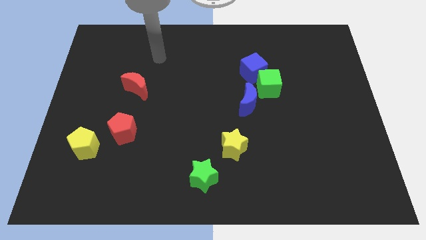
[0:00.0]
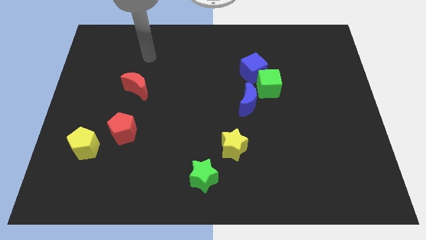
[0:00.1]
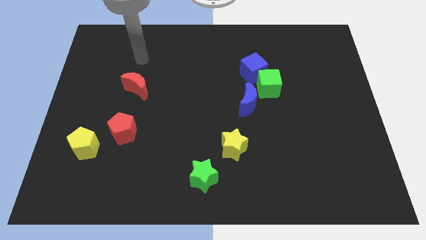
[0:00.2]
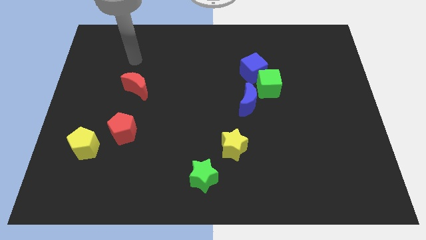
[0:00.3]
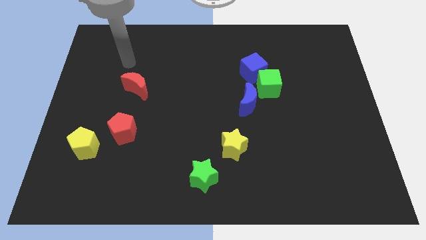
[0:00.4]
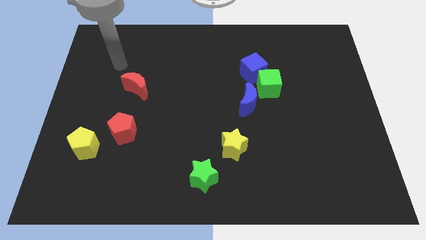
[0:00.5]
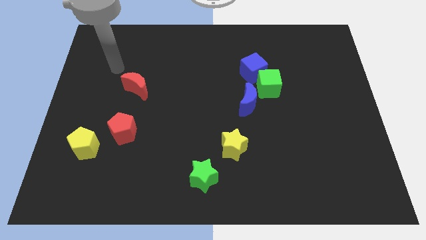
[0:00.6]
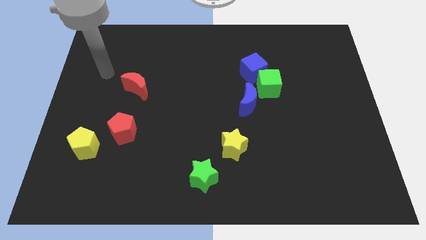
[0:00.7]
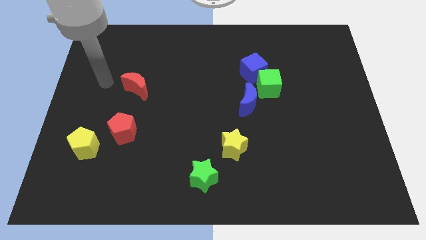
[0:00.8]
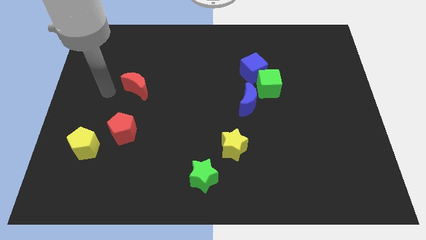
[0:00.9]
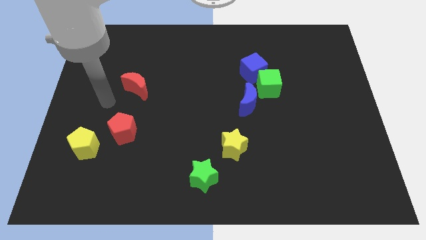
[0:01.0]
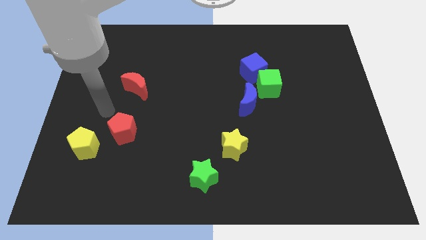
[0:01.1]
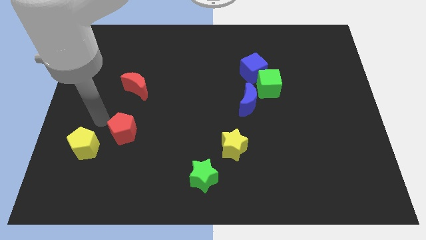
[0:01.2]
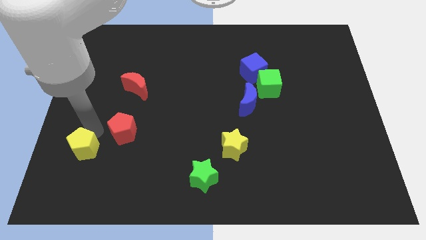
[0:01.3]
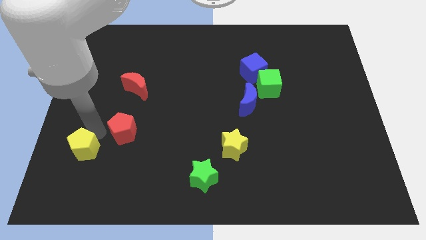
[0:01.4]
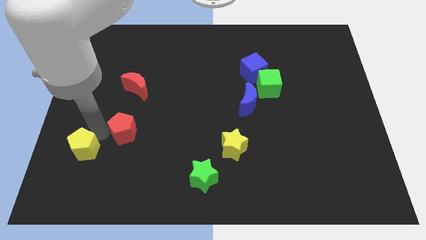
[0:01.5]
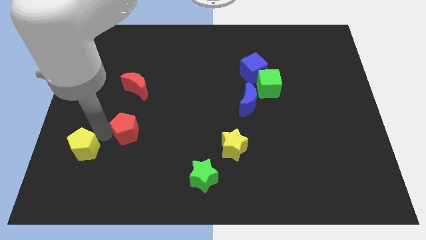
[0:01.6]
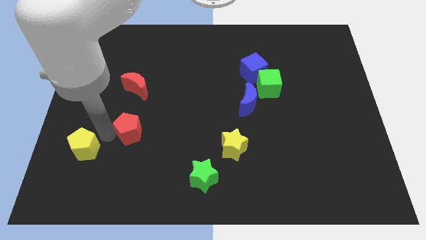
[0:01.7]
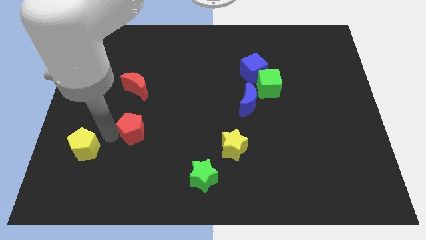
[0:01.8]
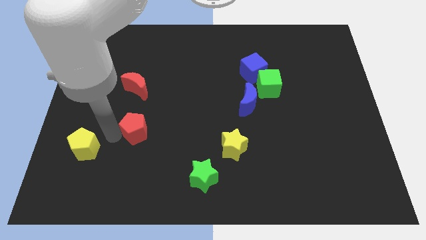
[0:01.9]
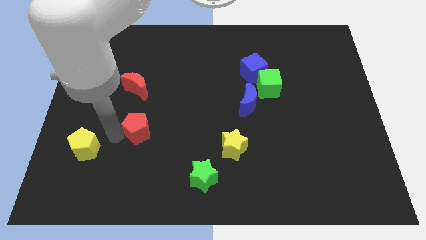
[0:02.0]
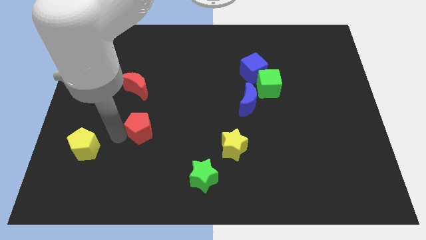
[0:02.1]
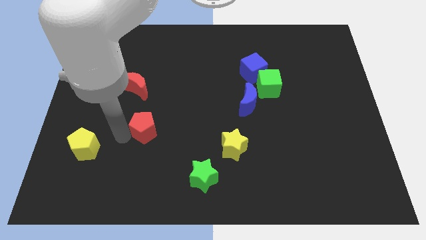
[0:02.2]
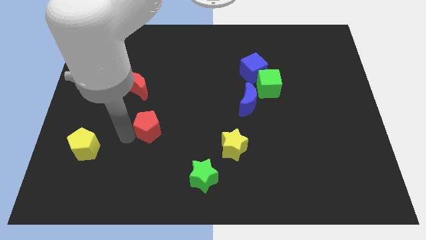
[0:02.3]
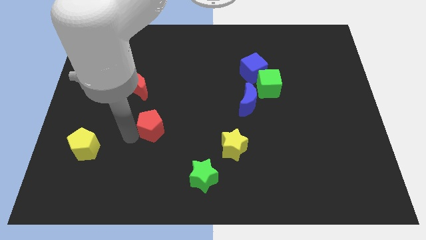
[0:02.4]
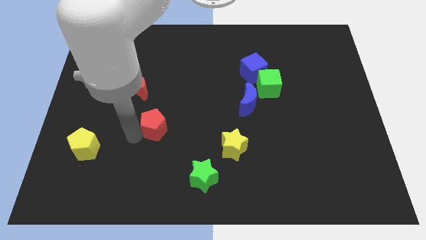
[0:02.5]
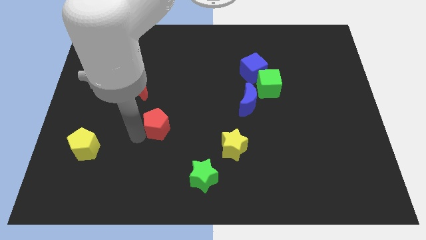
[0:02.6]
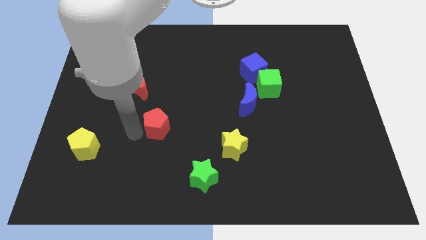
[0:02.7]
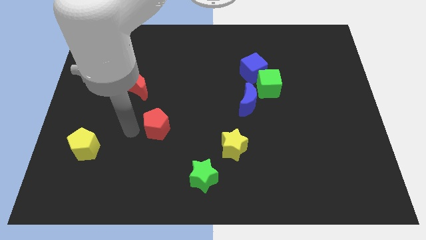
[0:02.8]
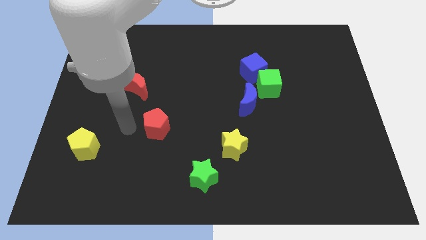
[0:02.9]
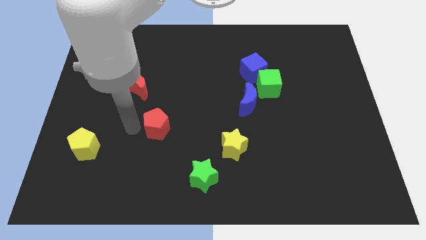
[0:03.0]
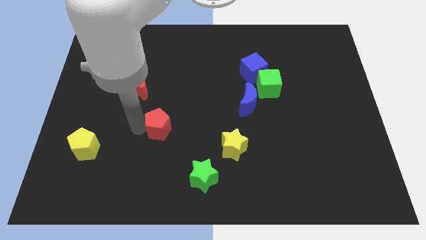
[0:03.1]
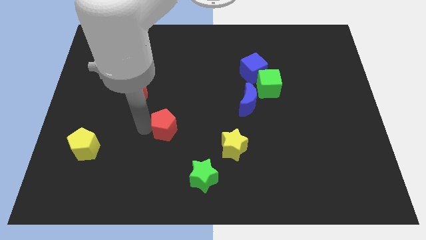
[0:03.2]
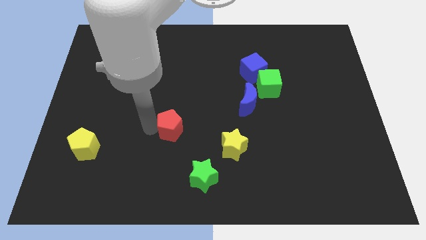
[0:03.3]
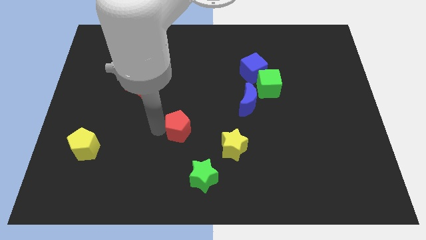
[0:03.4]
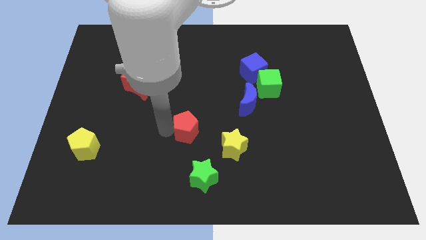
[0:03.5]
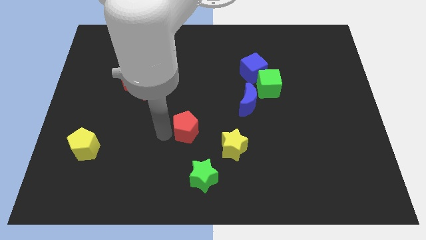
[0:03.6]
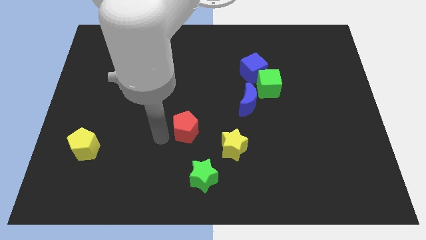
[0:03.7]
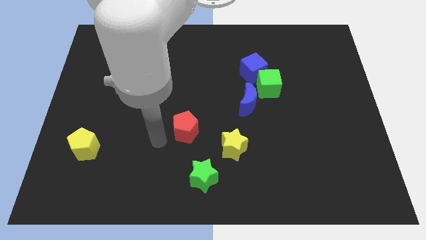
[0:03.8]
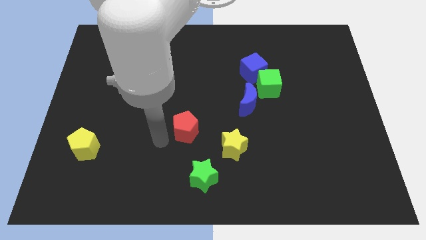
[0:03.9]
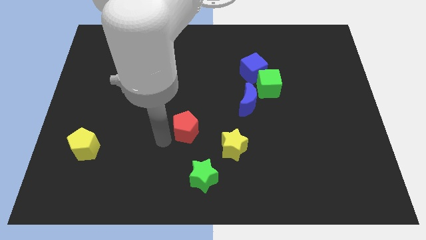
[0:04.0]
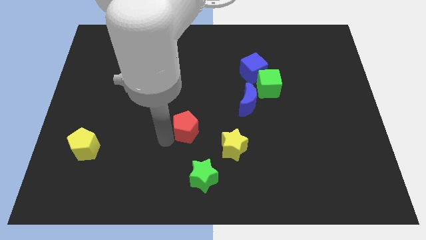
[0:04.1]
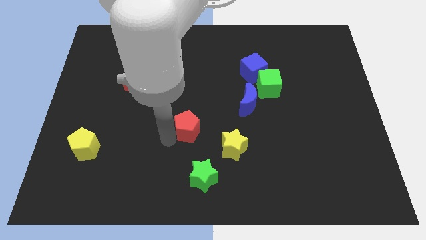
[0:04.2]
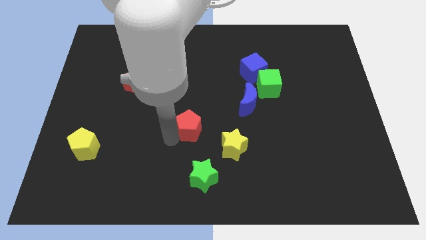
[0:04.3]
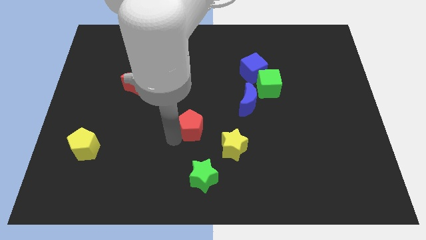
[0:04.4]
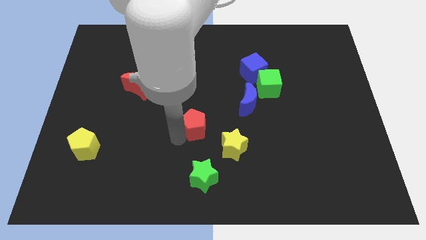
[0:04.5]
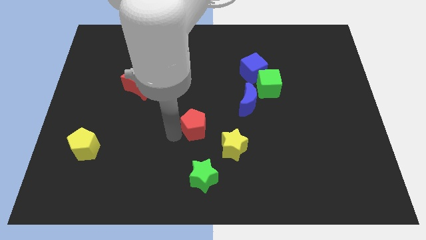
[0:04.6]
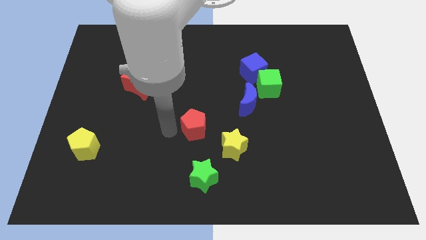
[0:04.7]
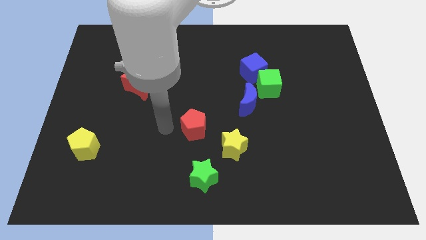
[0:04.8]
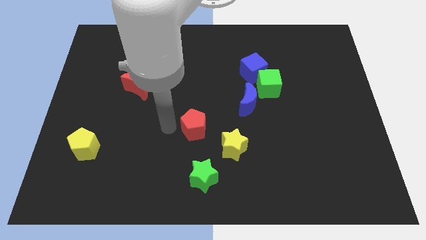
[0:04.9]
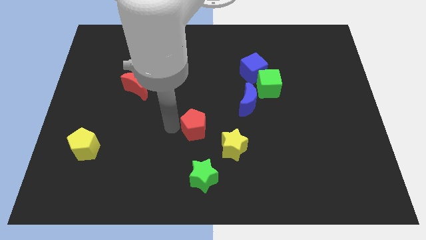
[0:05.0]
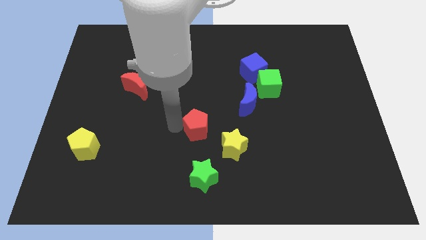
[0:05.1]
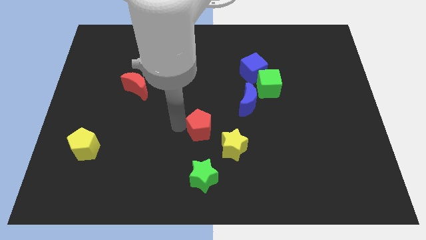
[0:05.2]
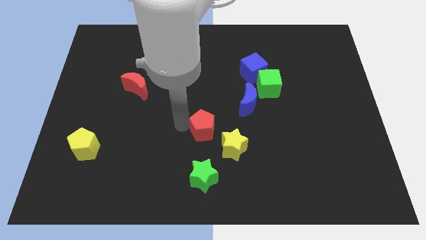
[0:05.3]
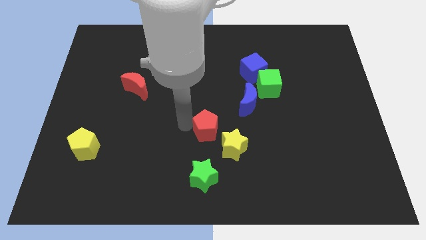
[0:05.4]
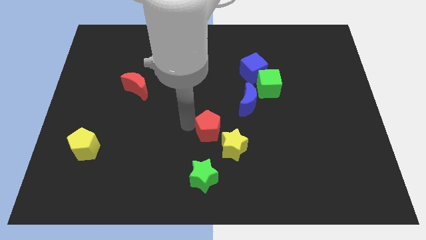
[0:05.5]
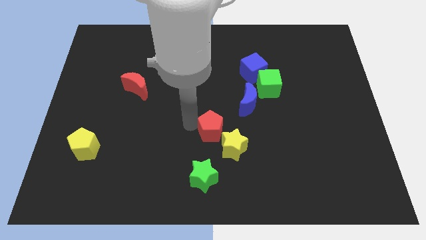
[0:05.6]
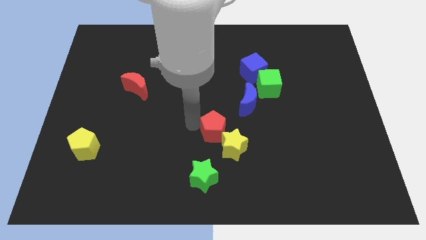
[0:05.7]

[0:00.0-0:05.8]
slide the red pentagon to the right

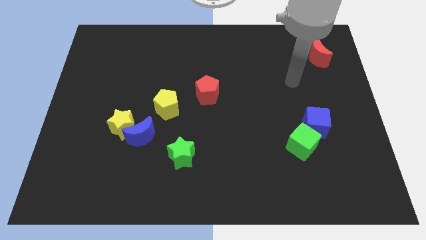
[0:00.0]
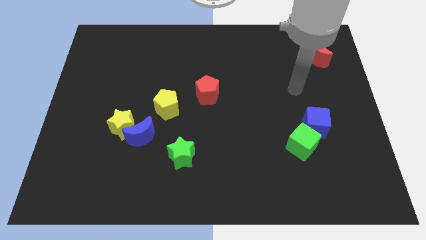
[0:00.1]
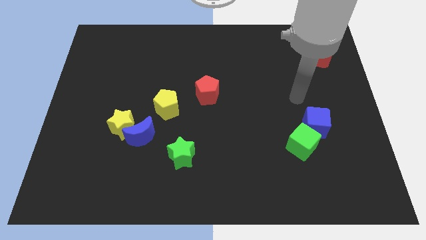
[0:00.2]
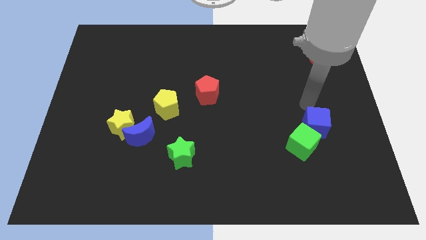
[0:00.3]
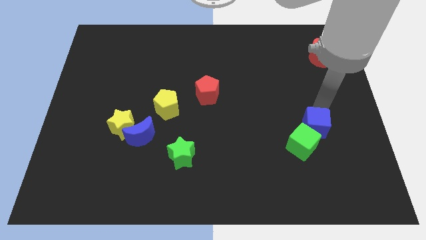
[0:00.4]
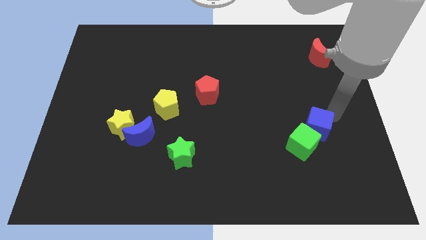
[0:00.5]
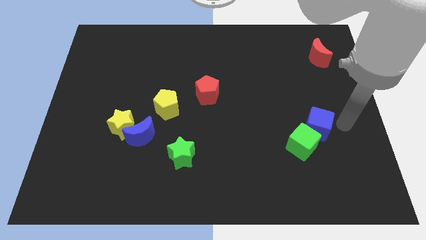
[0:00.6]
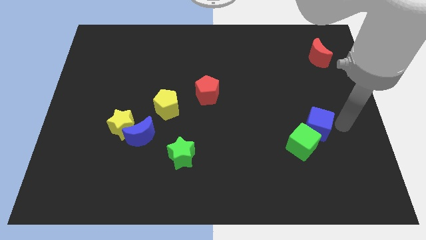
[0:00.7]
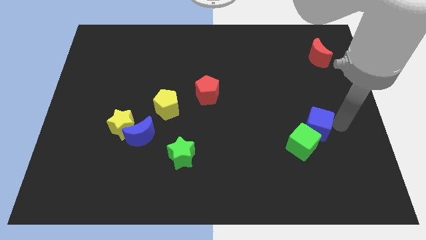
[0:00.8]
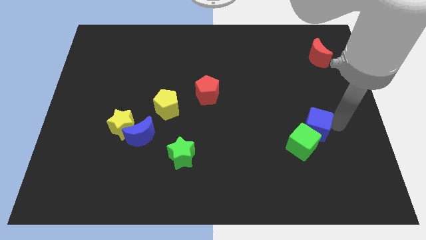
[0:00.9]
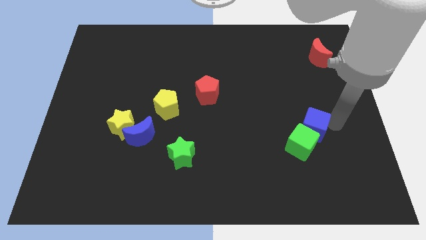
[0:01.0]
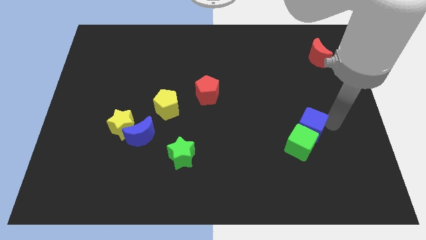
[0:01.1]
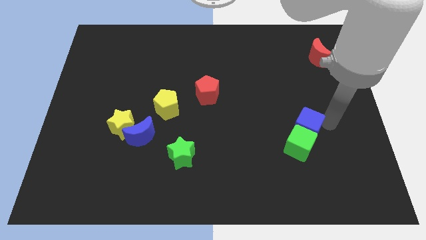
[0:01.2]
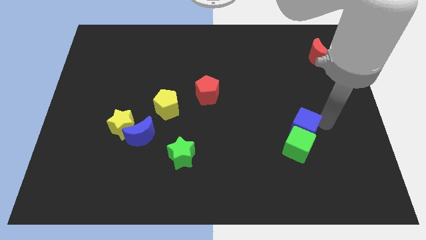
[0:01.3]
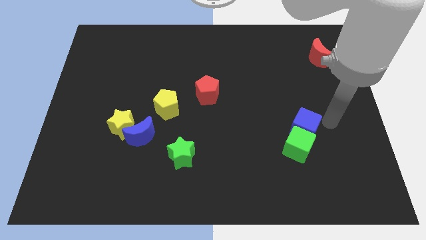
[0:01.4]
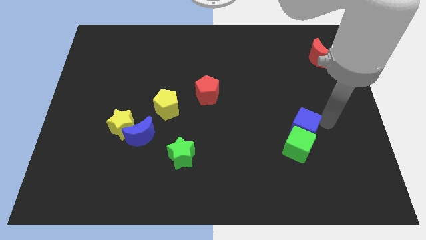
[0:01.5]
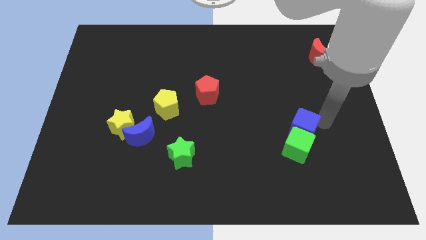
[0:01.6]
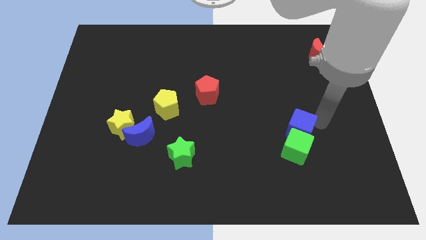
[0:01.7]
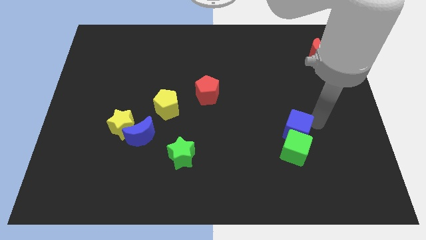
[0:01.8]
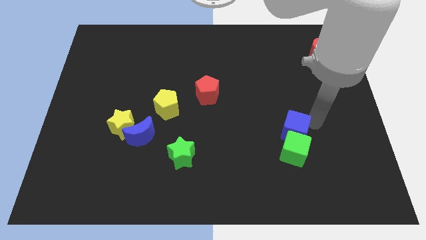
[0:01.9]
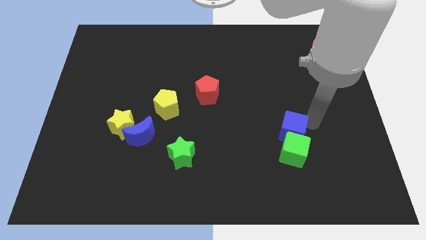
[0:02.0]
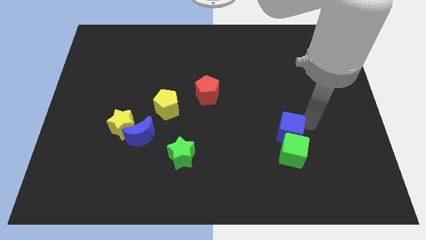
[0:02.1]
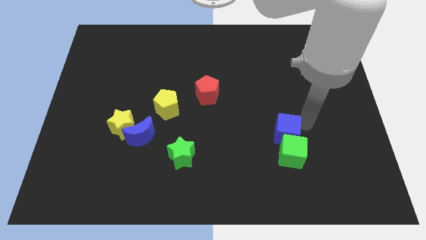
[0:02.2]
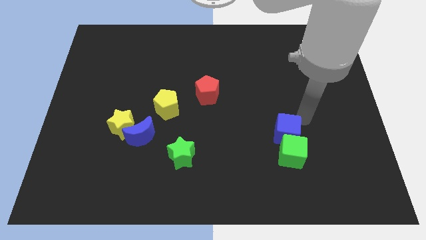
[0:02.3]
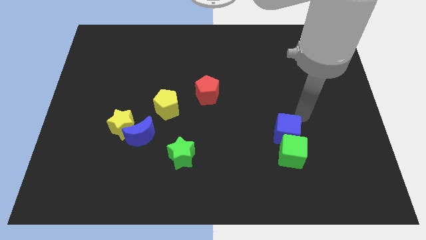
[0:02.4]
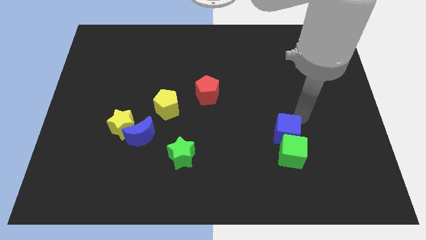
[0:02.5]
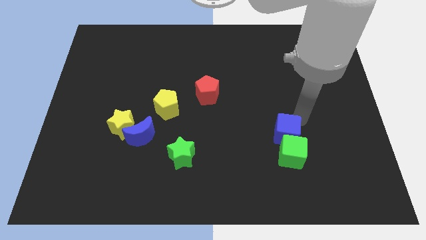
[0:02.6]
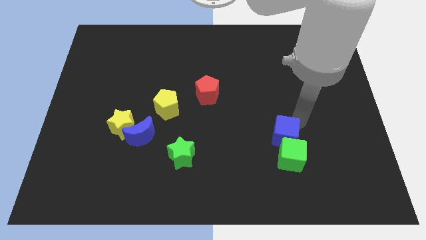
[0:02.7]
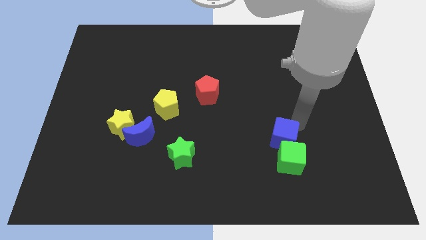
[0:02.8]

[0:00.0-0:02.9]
move the blue cube slightly down and to the left diagonally
